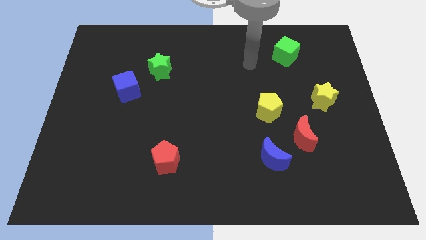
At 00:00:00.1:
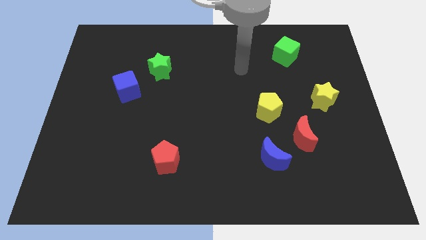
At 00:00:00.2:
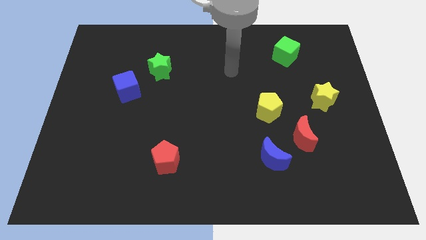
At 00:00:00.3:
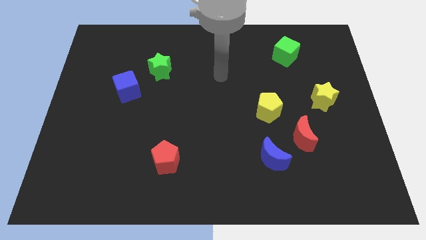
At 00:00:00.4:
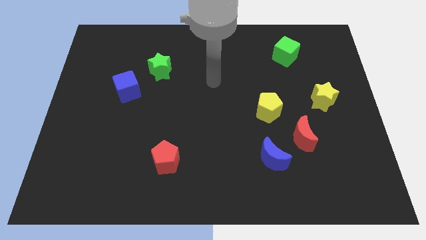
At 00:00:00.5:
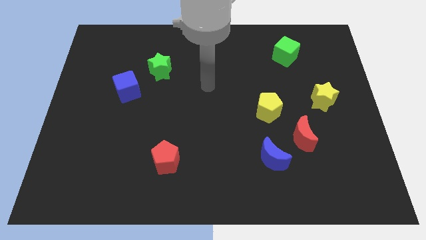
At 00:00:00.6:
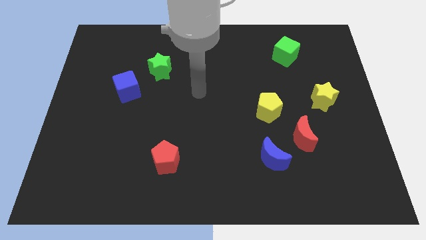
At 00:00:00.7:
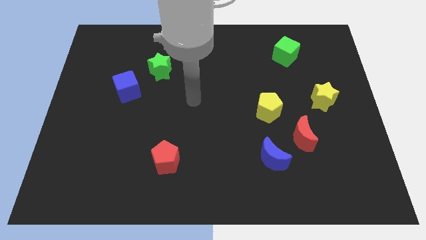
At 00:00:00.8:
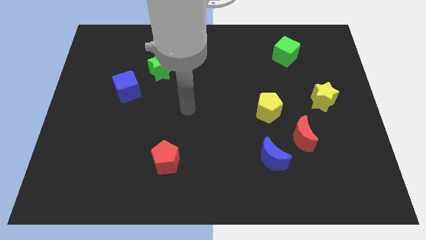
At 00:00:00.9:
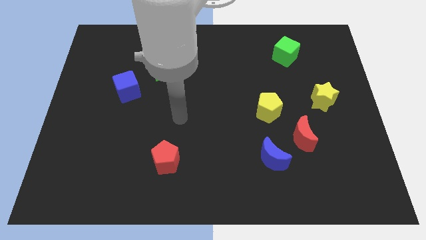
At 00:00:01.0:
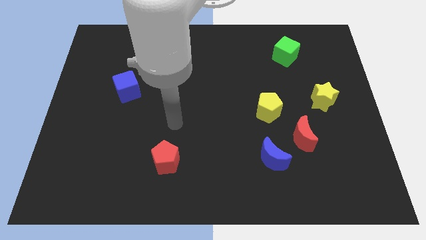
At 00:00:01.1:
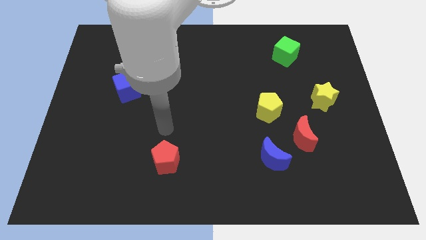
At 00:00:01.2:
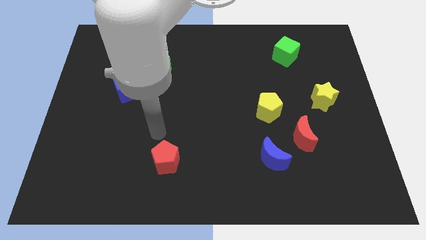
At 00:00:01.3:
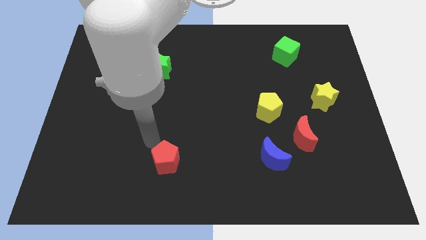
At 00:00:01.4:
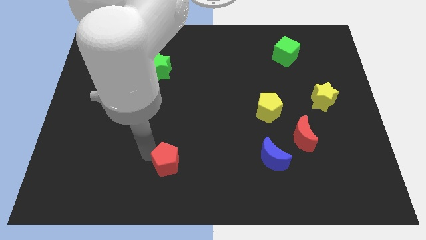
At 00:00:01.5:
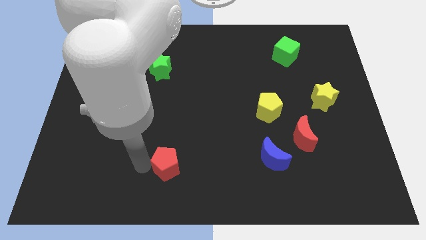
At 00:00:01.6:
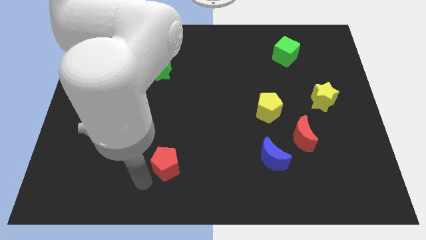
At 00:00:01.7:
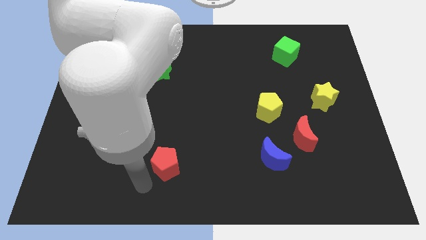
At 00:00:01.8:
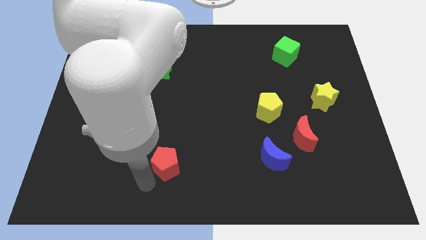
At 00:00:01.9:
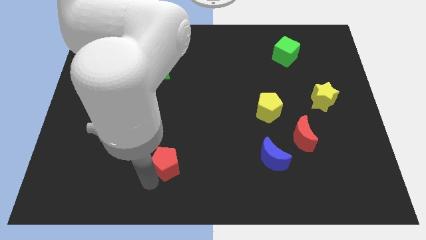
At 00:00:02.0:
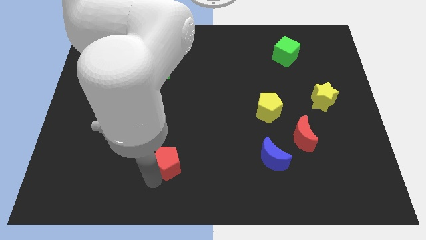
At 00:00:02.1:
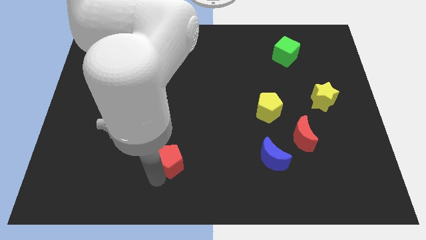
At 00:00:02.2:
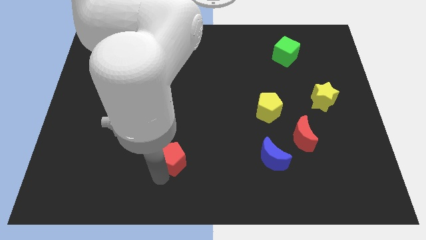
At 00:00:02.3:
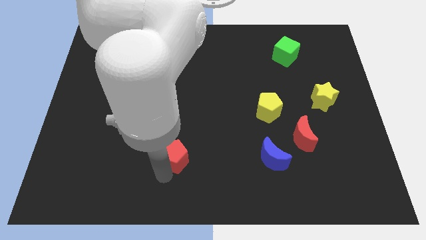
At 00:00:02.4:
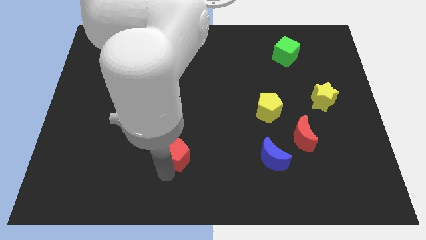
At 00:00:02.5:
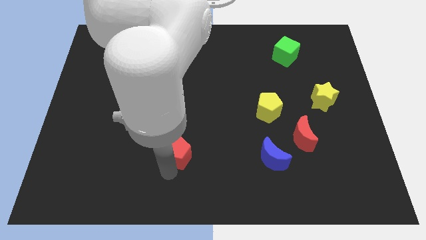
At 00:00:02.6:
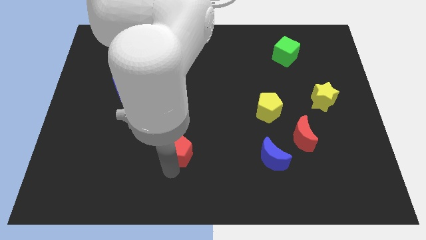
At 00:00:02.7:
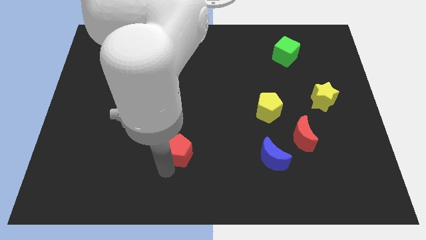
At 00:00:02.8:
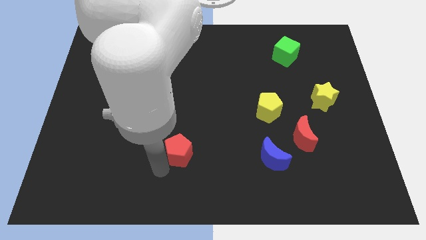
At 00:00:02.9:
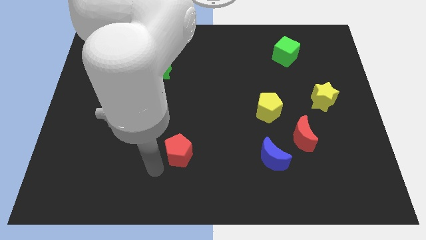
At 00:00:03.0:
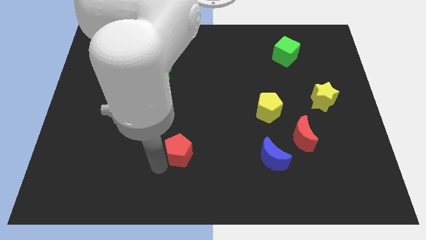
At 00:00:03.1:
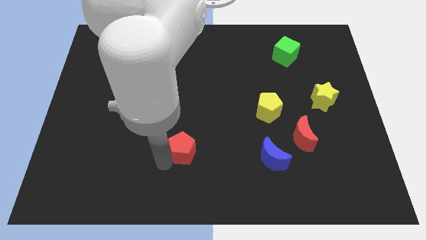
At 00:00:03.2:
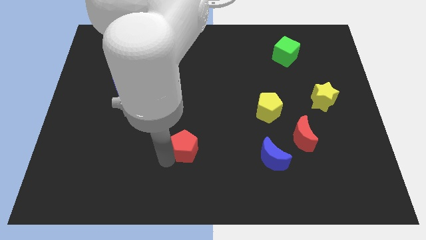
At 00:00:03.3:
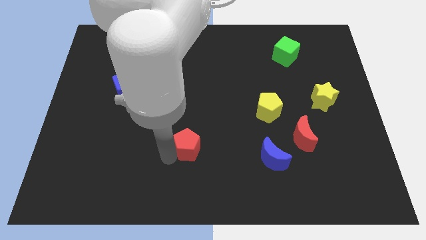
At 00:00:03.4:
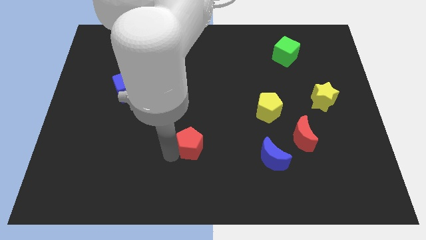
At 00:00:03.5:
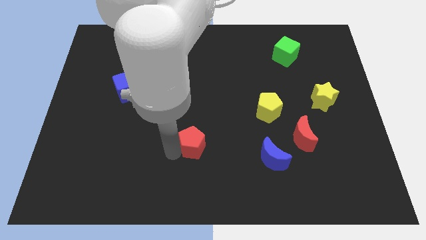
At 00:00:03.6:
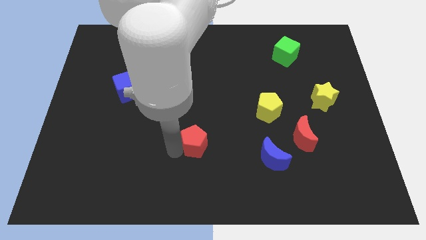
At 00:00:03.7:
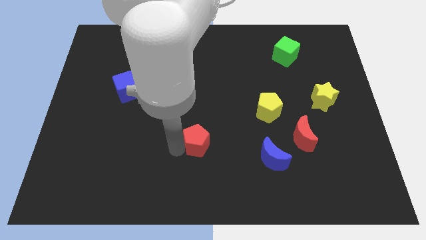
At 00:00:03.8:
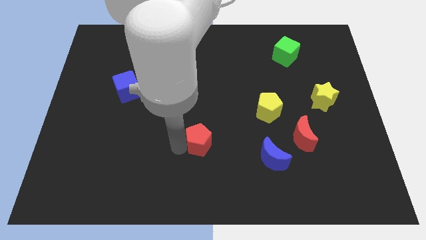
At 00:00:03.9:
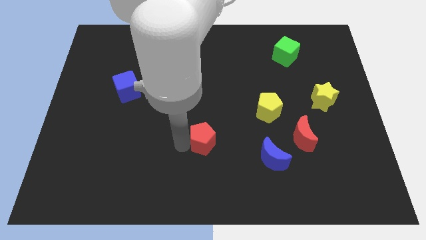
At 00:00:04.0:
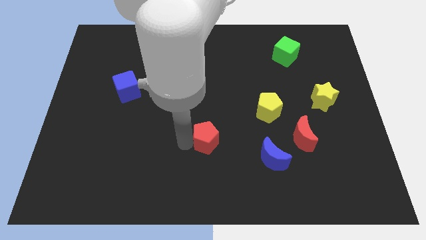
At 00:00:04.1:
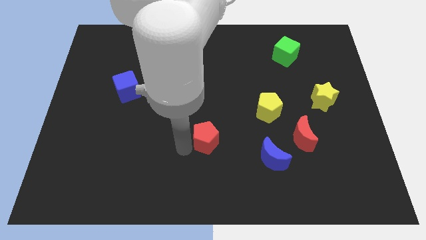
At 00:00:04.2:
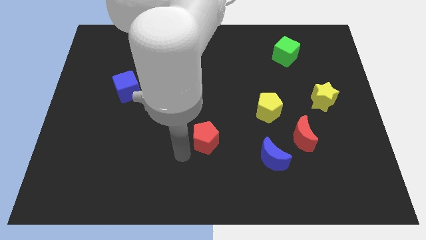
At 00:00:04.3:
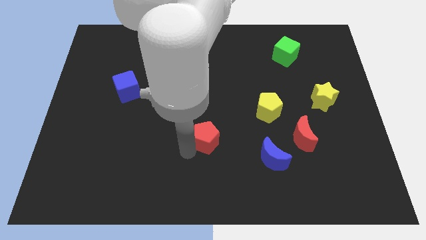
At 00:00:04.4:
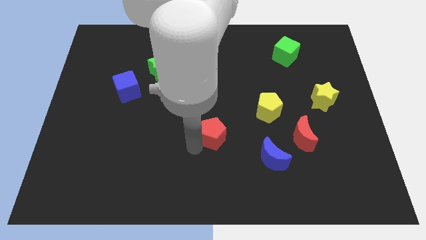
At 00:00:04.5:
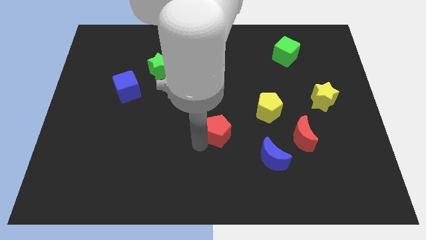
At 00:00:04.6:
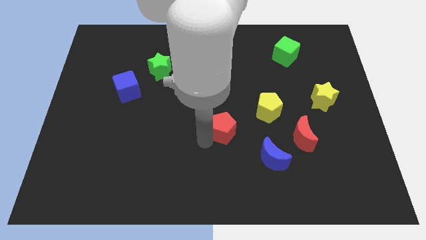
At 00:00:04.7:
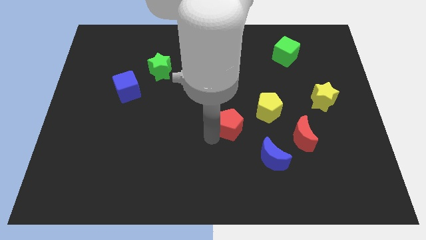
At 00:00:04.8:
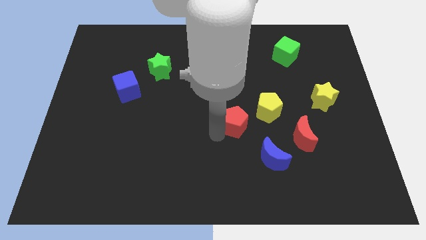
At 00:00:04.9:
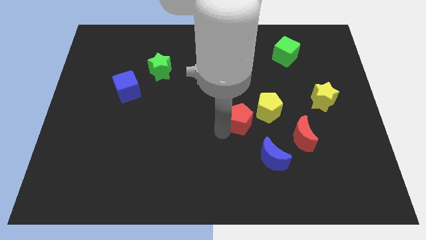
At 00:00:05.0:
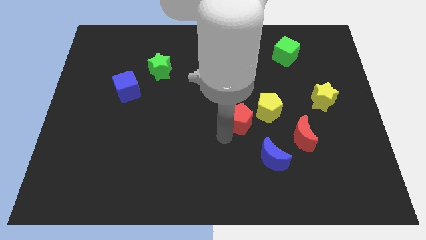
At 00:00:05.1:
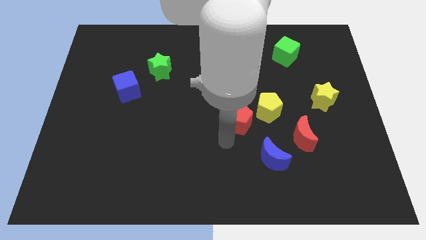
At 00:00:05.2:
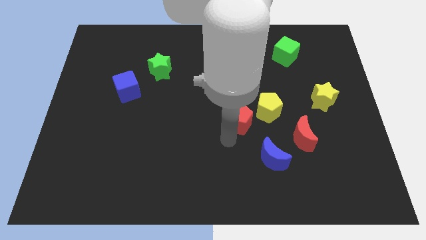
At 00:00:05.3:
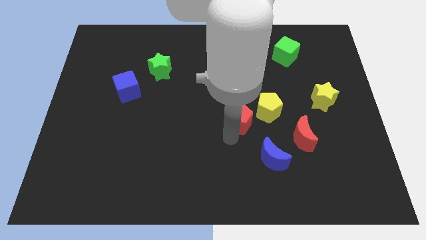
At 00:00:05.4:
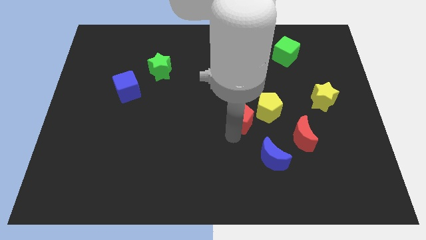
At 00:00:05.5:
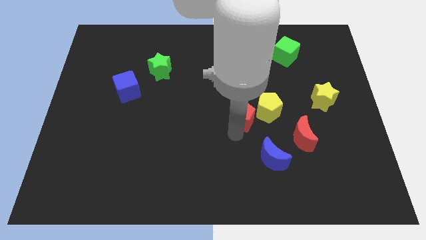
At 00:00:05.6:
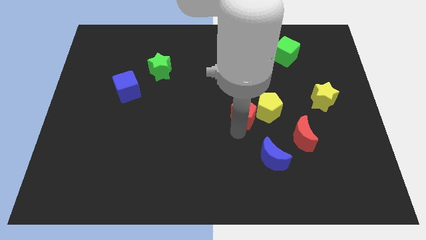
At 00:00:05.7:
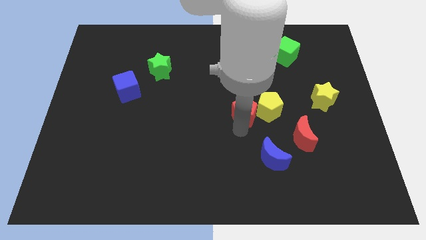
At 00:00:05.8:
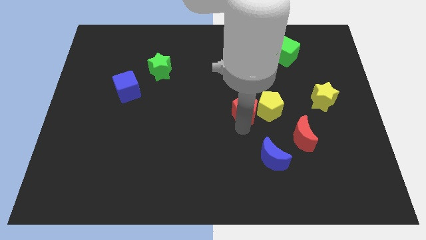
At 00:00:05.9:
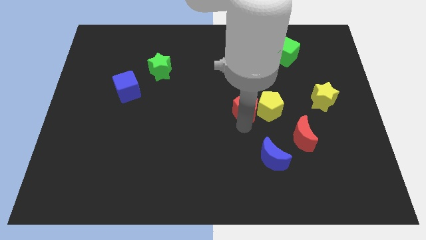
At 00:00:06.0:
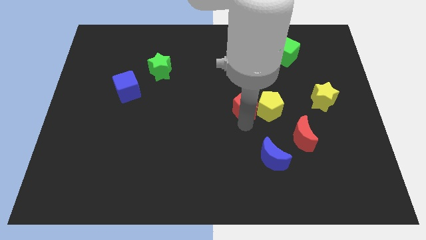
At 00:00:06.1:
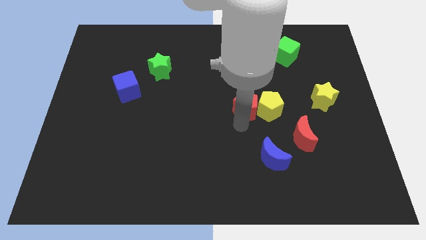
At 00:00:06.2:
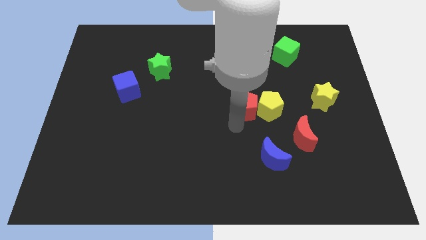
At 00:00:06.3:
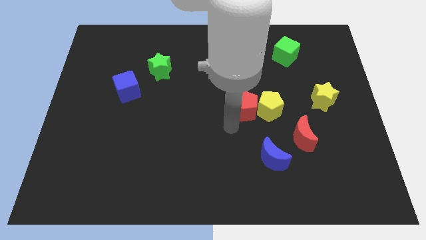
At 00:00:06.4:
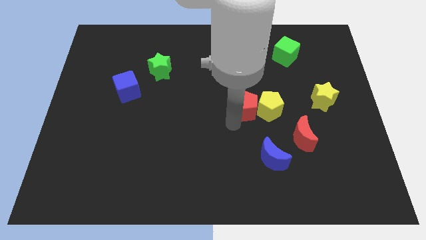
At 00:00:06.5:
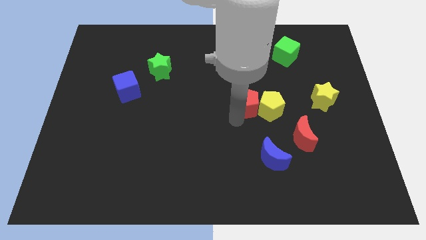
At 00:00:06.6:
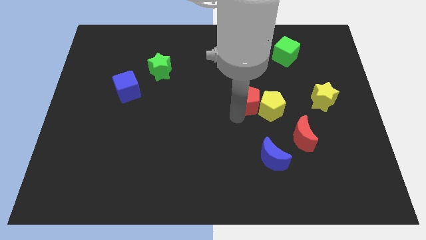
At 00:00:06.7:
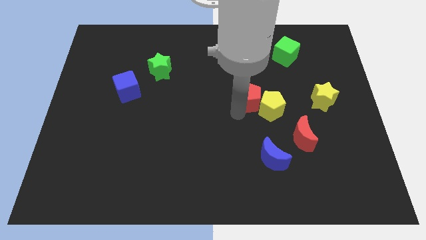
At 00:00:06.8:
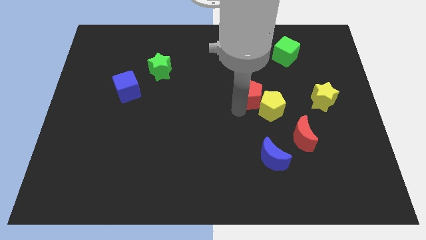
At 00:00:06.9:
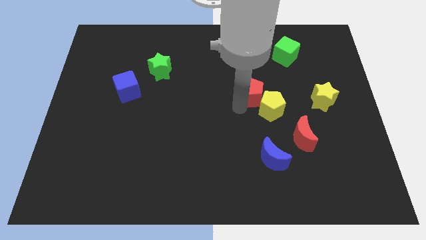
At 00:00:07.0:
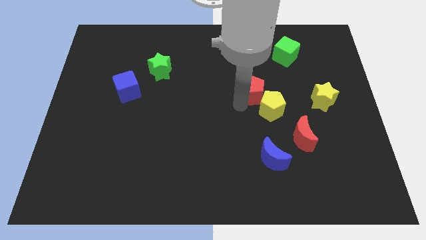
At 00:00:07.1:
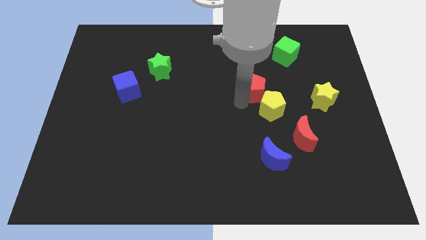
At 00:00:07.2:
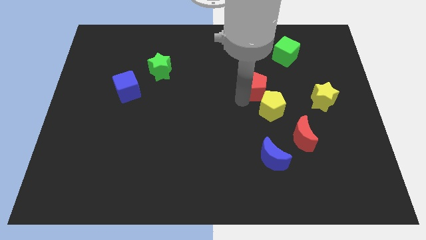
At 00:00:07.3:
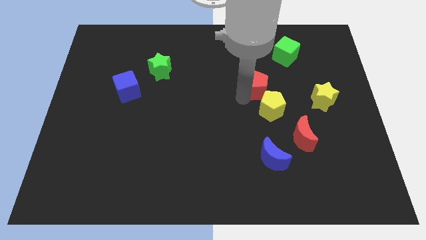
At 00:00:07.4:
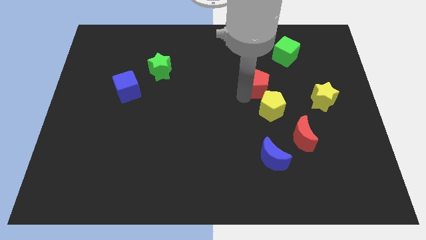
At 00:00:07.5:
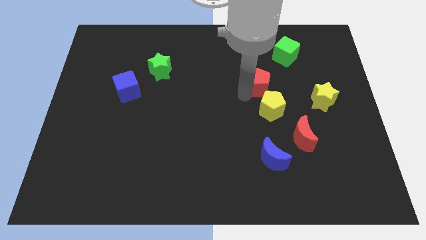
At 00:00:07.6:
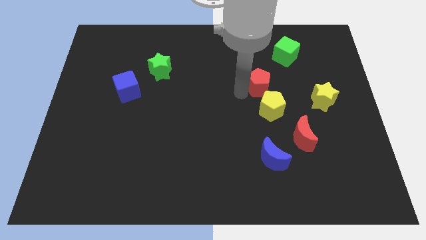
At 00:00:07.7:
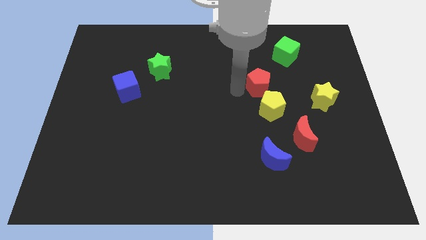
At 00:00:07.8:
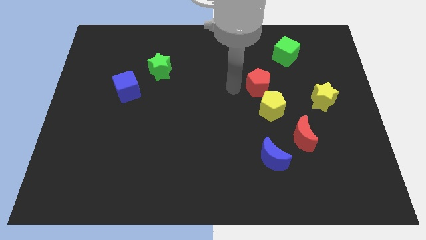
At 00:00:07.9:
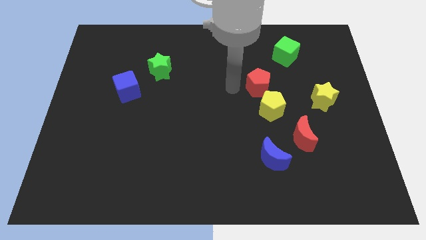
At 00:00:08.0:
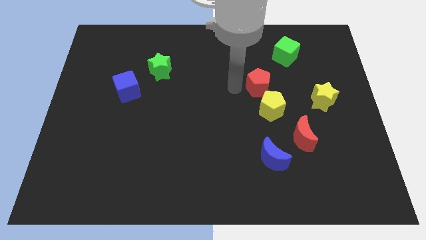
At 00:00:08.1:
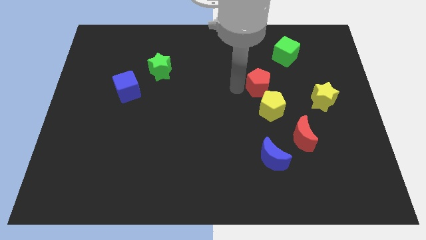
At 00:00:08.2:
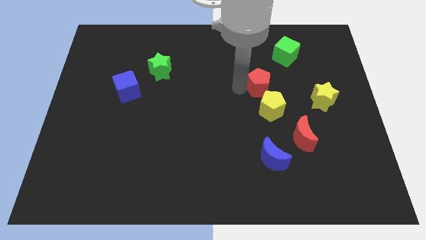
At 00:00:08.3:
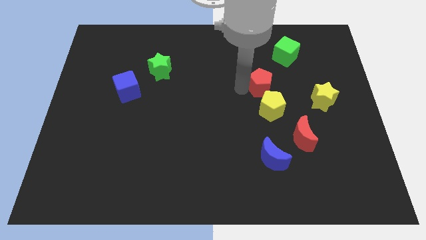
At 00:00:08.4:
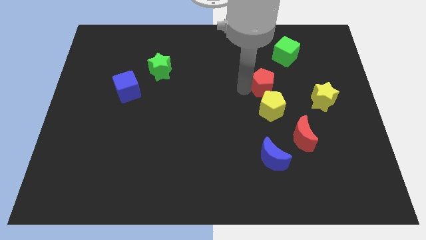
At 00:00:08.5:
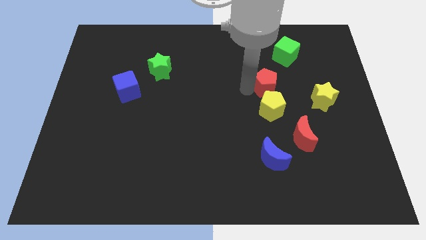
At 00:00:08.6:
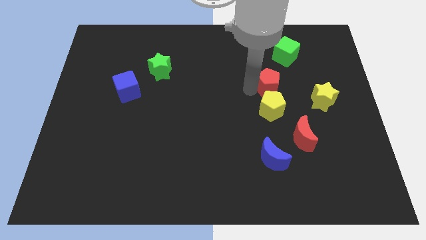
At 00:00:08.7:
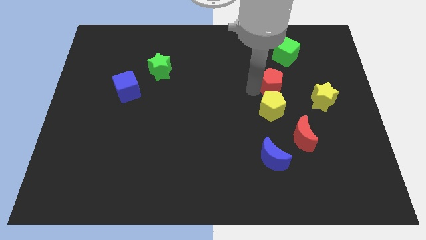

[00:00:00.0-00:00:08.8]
put the red pentagon to the bottom side of the green cube
